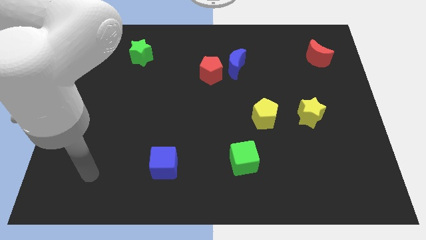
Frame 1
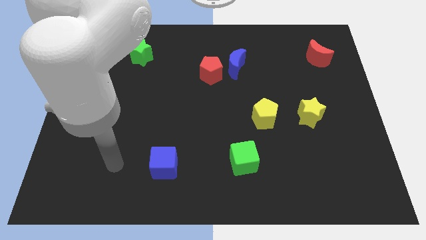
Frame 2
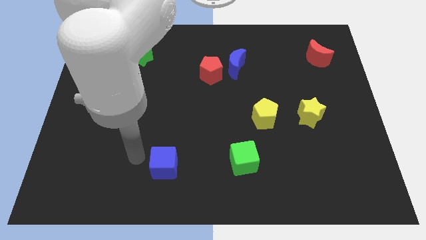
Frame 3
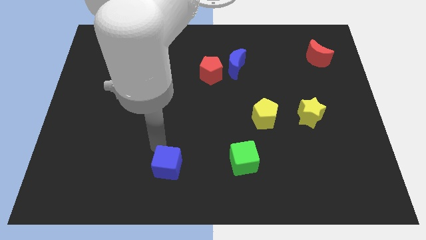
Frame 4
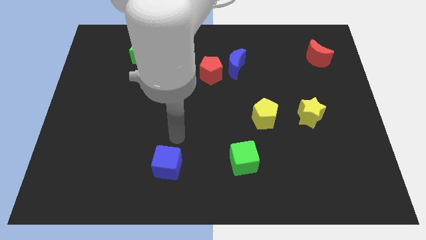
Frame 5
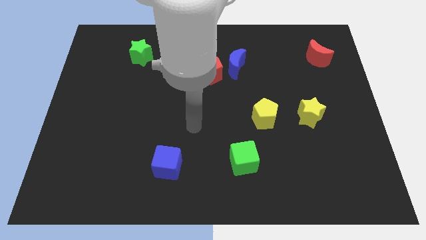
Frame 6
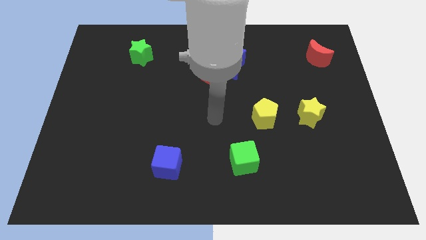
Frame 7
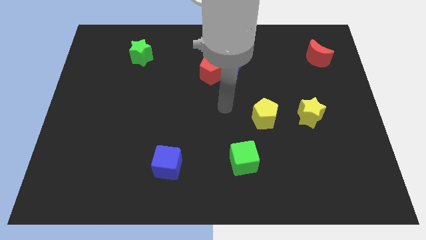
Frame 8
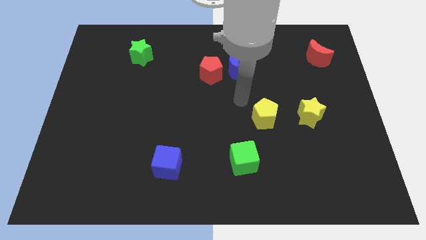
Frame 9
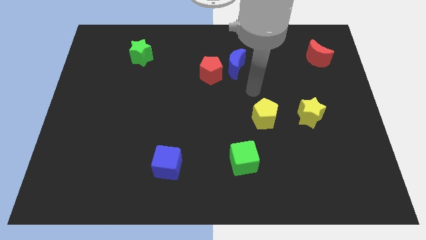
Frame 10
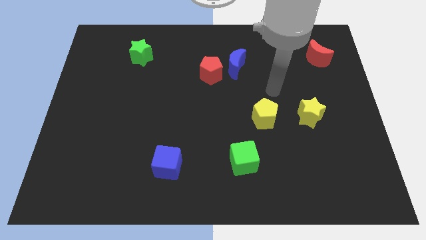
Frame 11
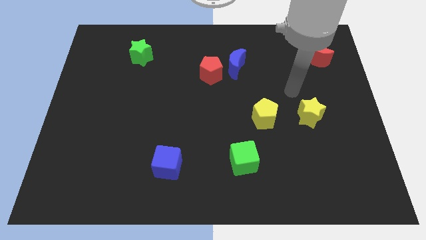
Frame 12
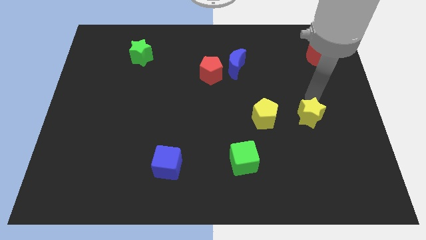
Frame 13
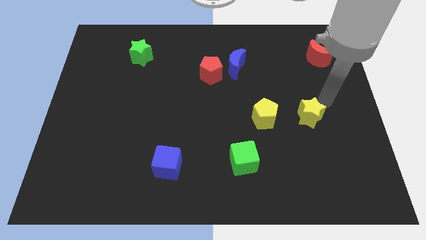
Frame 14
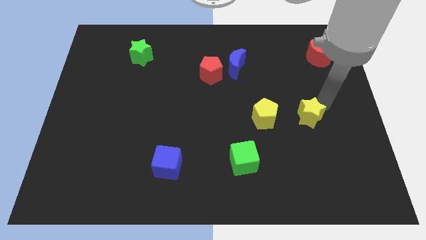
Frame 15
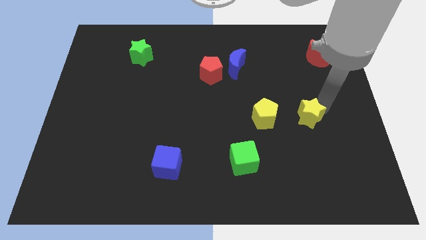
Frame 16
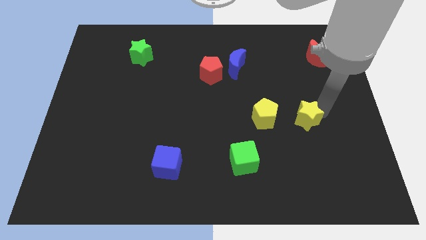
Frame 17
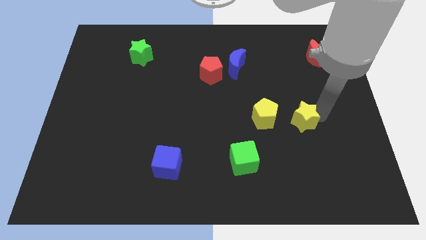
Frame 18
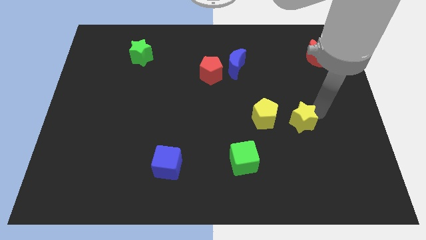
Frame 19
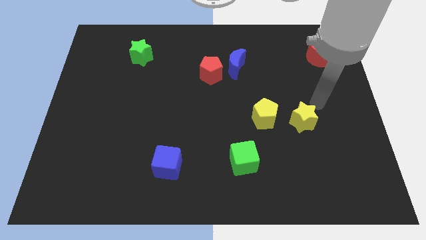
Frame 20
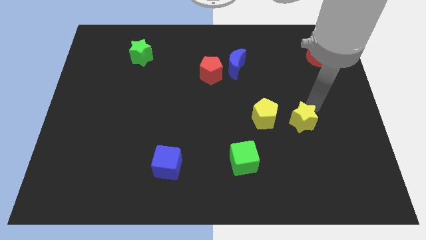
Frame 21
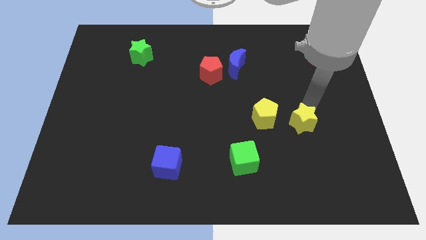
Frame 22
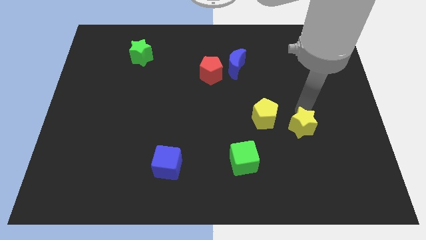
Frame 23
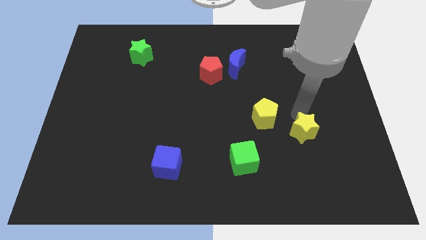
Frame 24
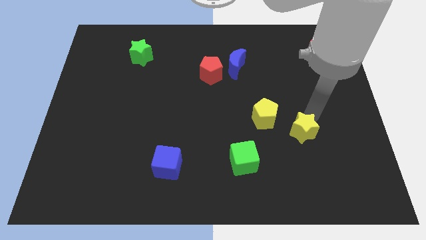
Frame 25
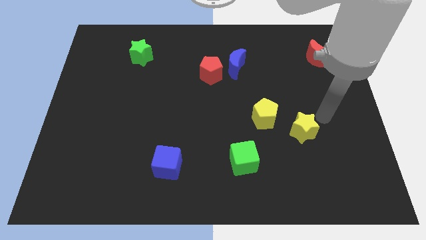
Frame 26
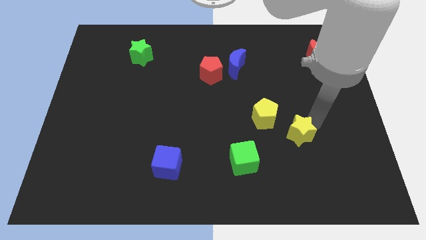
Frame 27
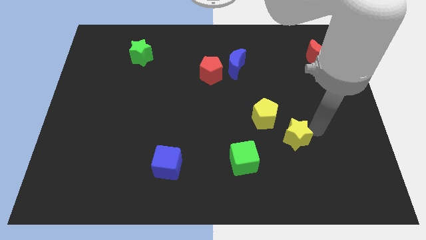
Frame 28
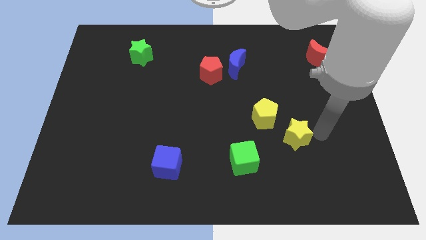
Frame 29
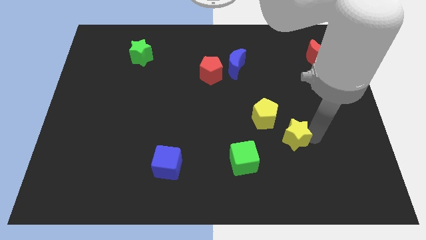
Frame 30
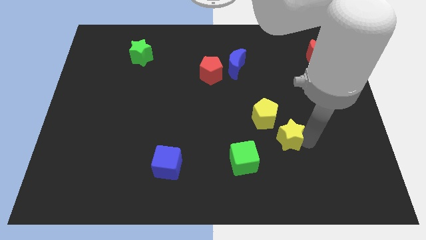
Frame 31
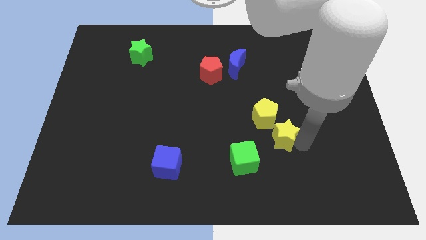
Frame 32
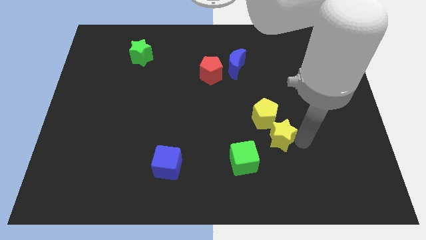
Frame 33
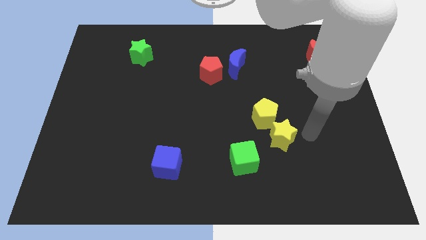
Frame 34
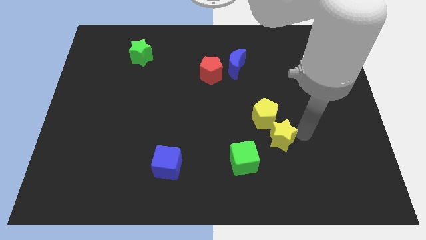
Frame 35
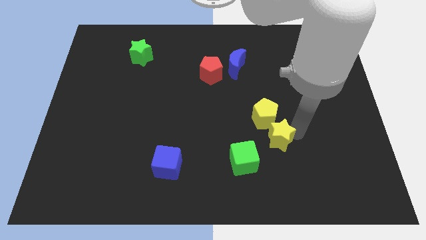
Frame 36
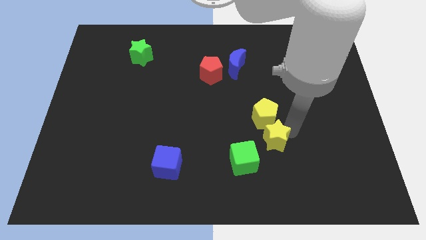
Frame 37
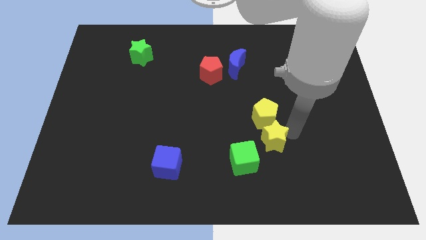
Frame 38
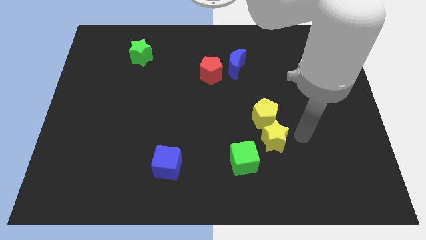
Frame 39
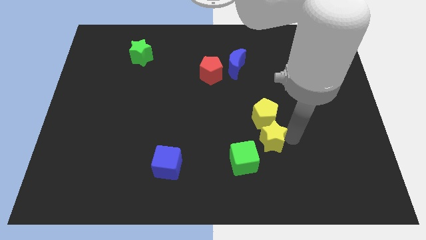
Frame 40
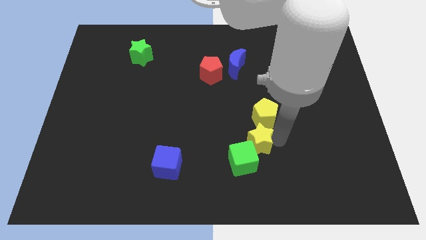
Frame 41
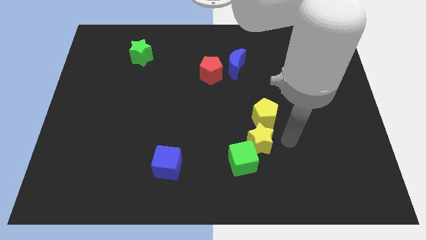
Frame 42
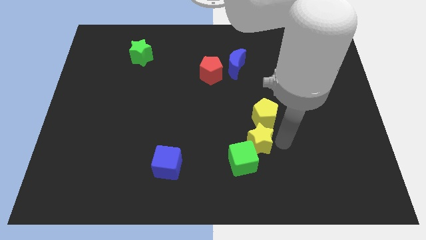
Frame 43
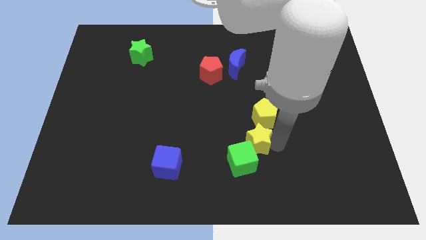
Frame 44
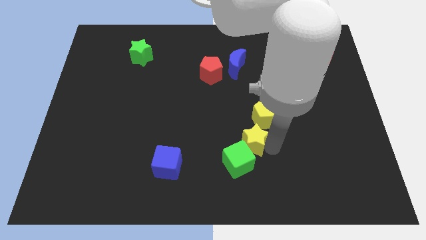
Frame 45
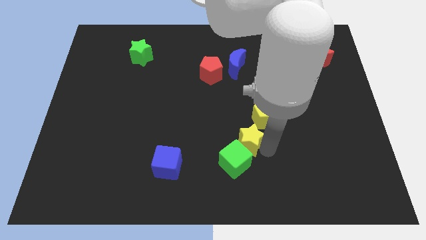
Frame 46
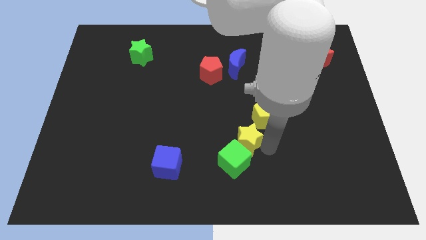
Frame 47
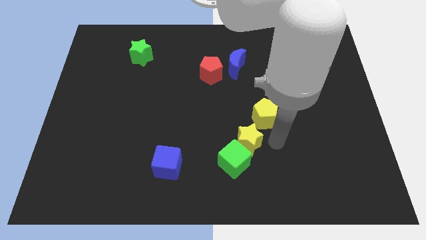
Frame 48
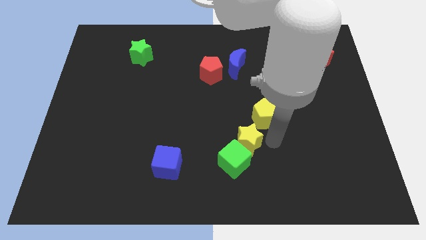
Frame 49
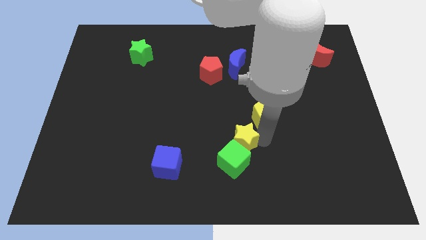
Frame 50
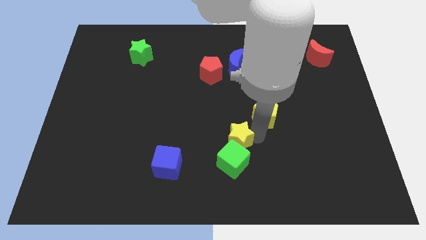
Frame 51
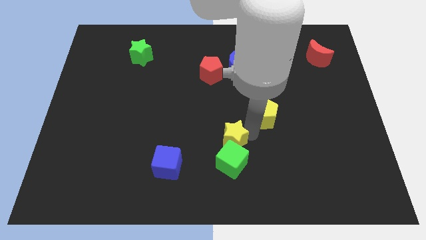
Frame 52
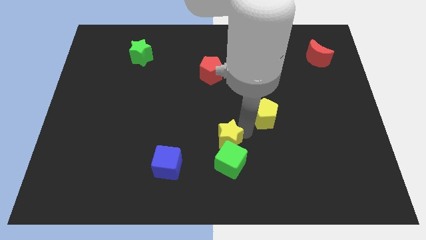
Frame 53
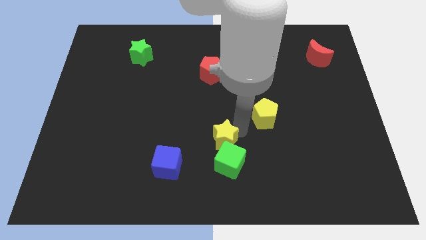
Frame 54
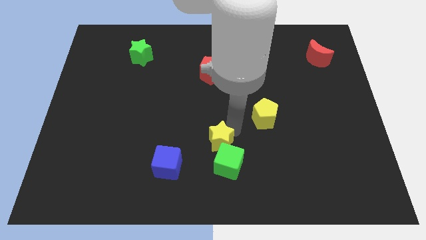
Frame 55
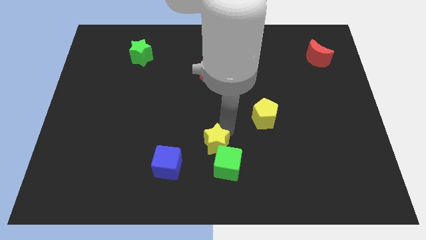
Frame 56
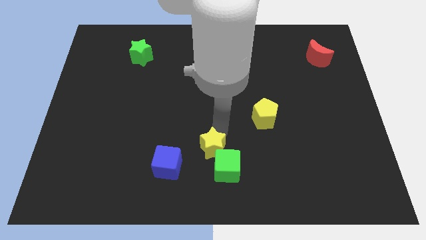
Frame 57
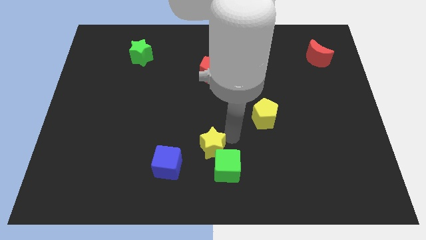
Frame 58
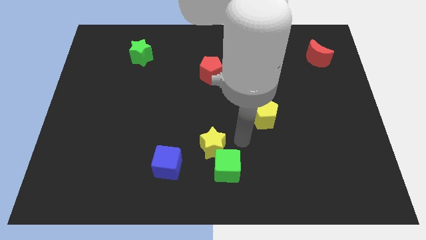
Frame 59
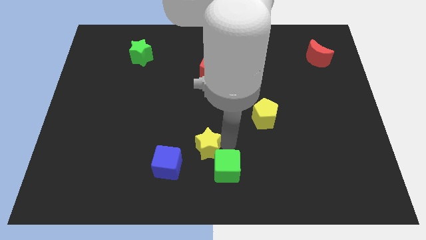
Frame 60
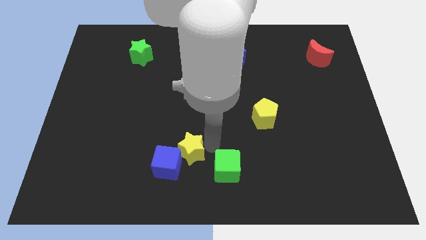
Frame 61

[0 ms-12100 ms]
slide the yellow star to the blue cube

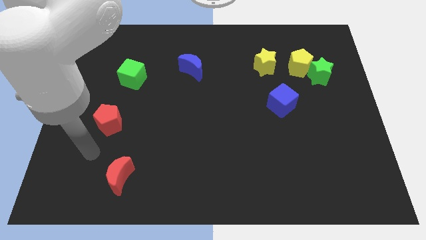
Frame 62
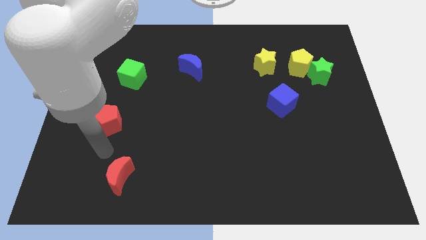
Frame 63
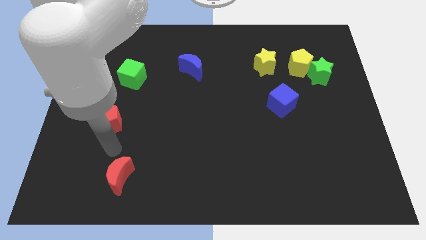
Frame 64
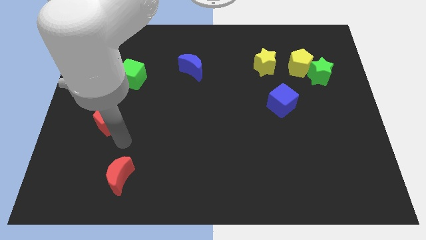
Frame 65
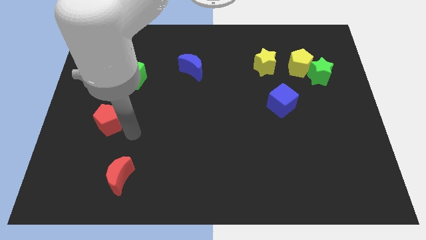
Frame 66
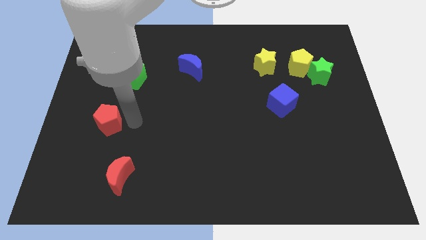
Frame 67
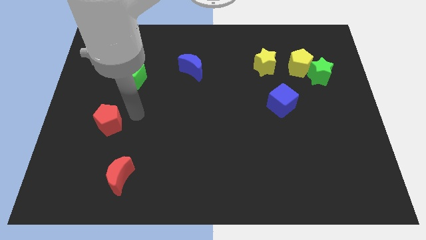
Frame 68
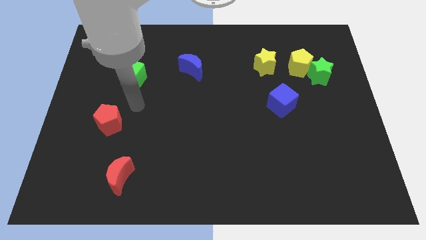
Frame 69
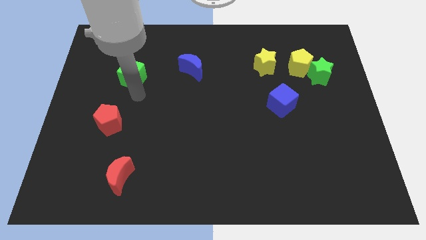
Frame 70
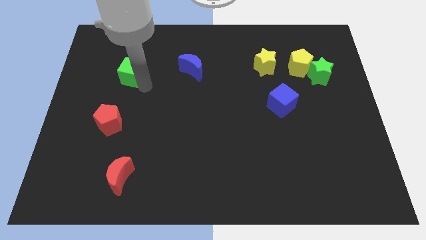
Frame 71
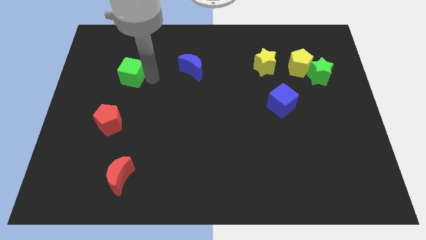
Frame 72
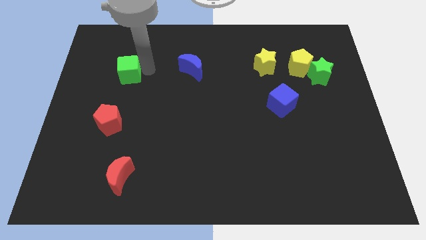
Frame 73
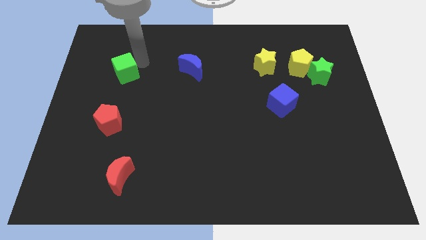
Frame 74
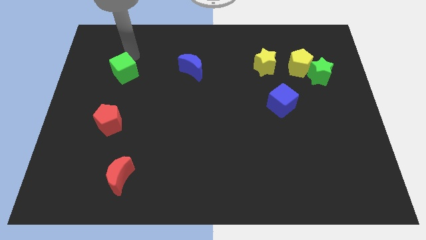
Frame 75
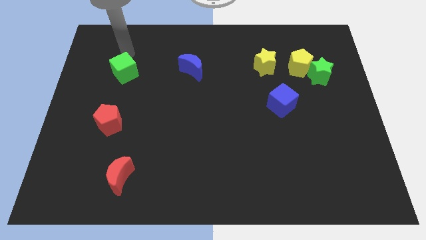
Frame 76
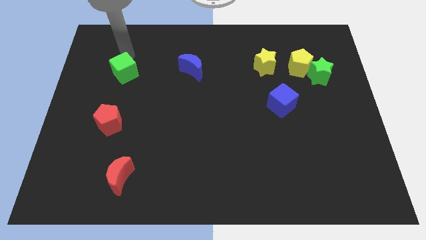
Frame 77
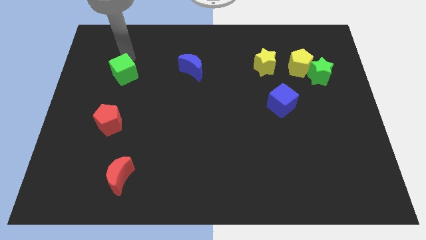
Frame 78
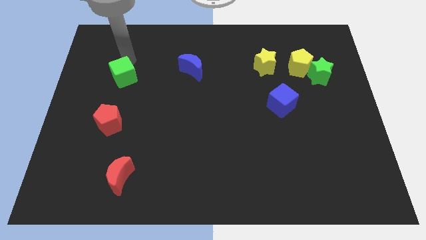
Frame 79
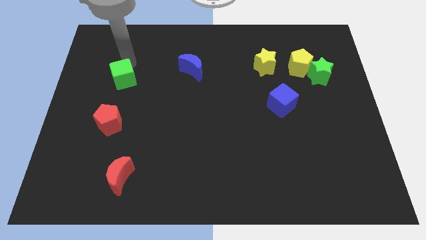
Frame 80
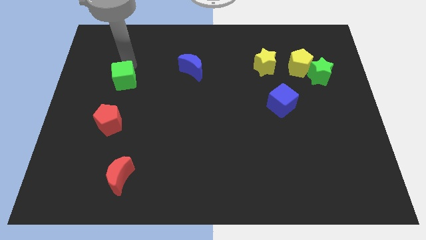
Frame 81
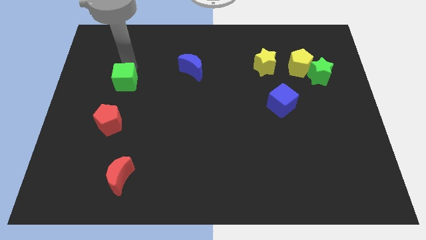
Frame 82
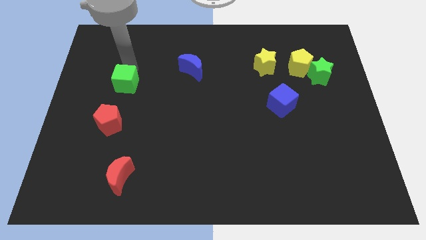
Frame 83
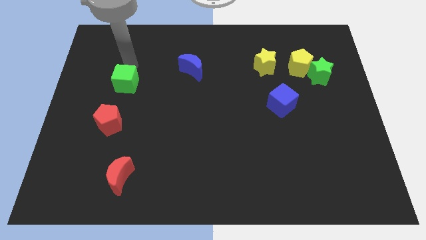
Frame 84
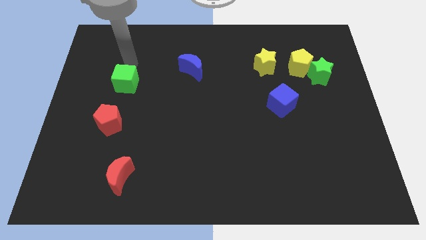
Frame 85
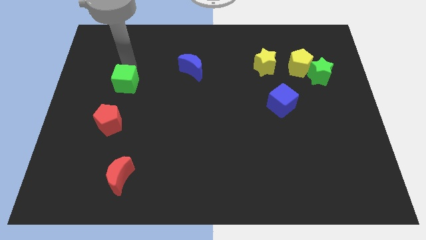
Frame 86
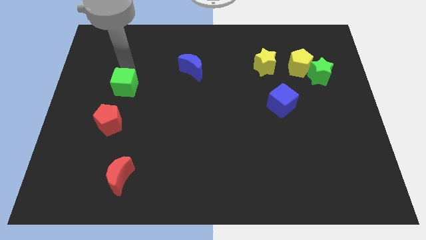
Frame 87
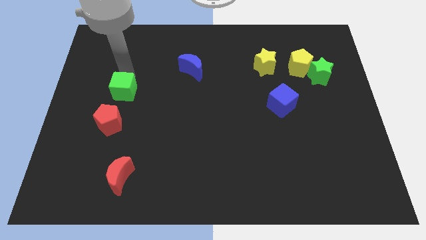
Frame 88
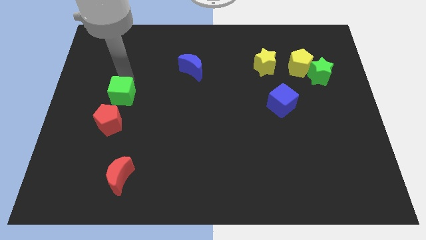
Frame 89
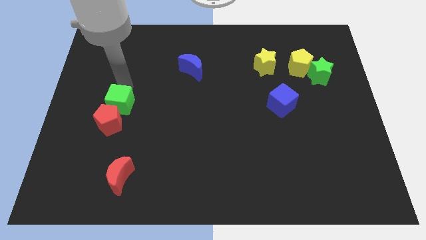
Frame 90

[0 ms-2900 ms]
push the green cube to the red pentagon
